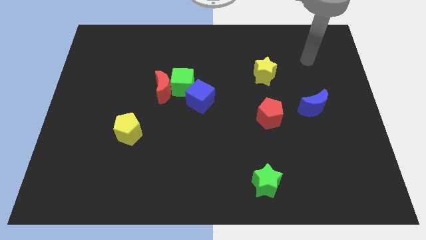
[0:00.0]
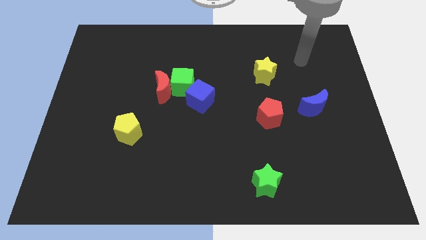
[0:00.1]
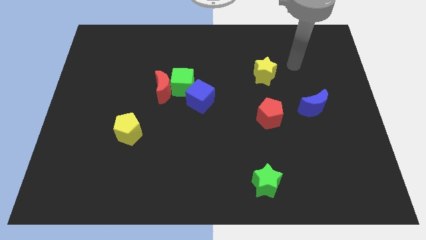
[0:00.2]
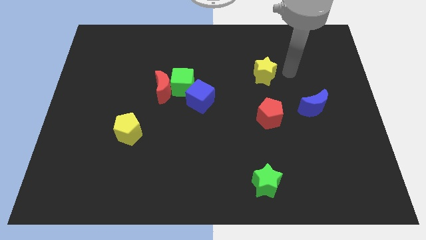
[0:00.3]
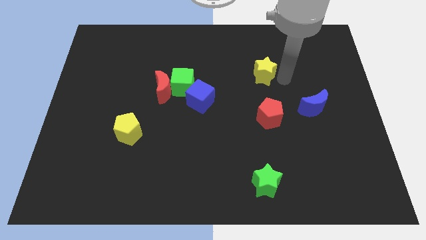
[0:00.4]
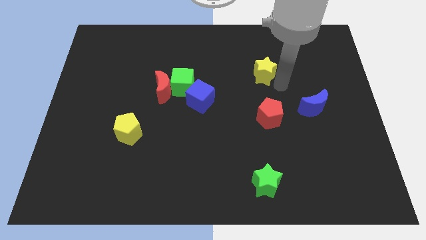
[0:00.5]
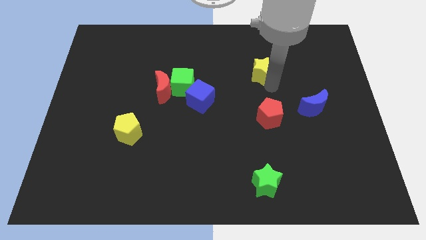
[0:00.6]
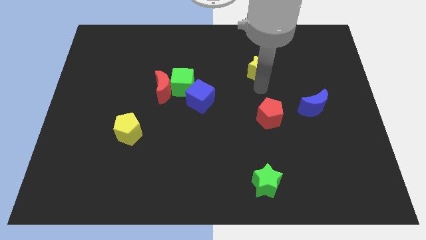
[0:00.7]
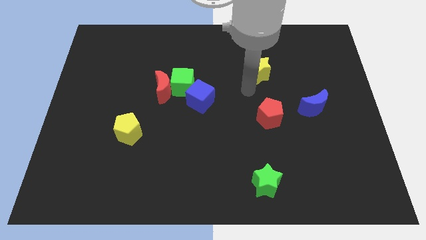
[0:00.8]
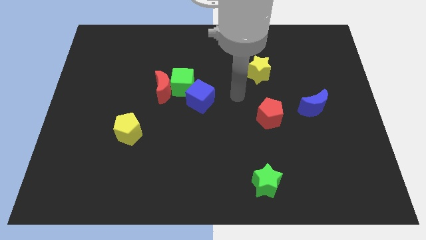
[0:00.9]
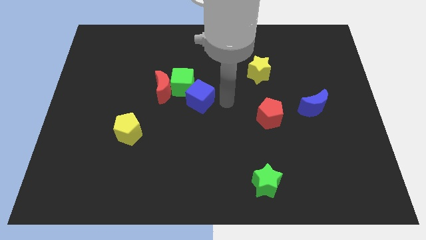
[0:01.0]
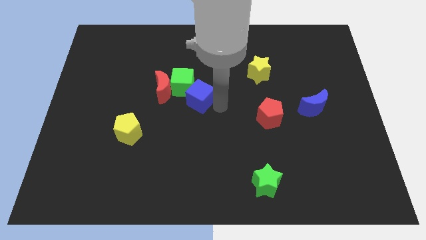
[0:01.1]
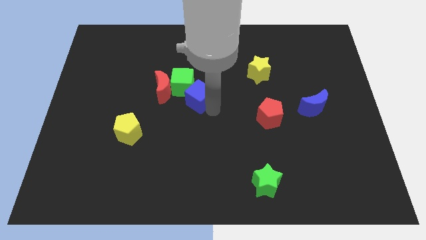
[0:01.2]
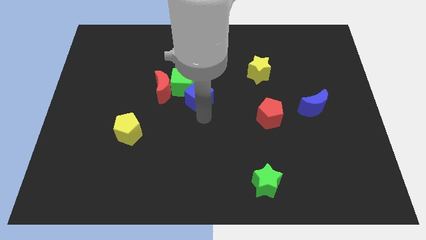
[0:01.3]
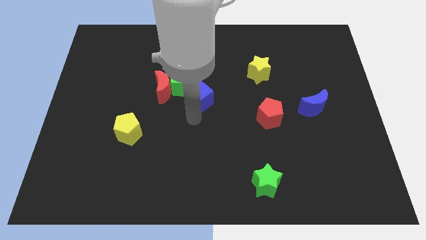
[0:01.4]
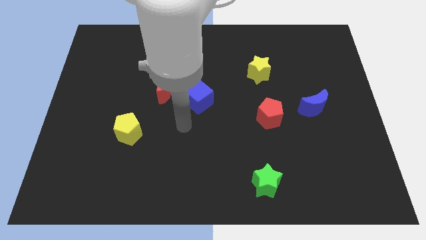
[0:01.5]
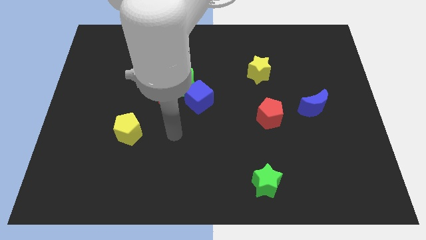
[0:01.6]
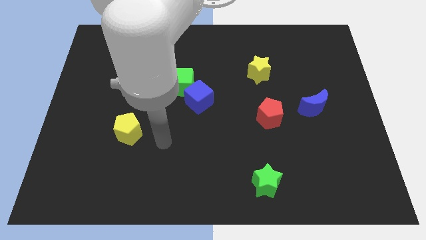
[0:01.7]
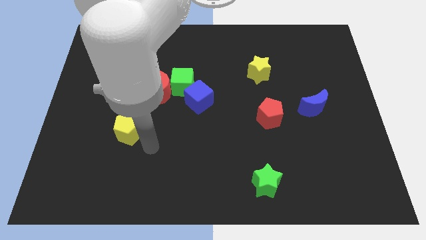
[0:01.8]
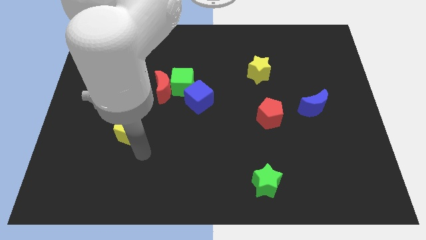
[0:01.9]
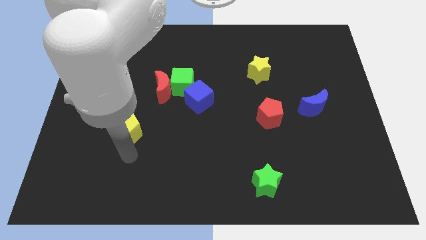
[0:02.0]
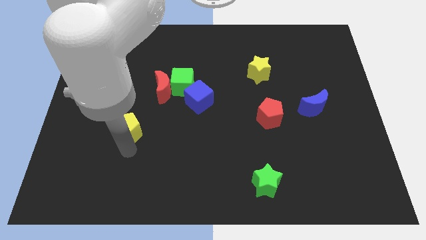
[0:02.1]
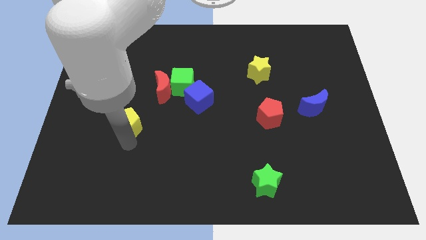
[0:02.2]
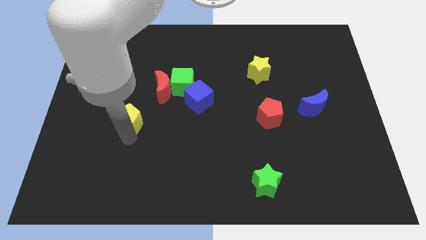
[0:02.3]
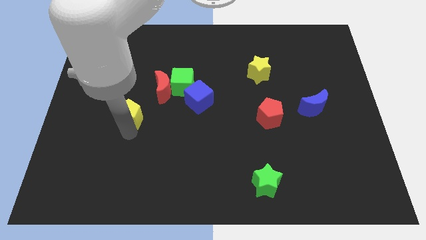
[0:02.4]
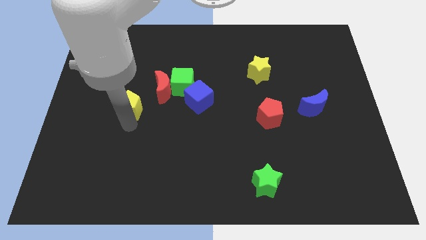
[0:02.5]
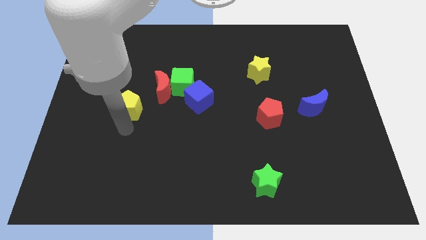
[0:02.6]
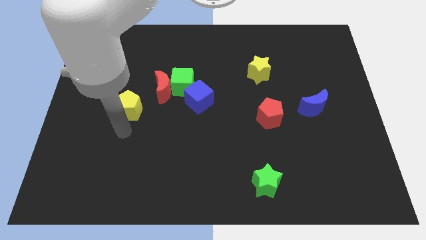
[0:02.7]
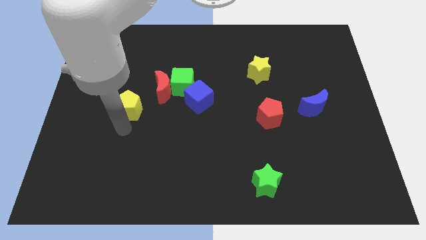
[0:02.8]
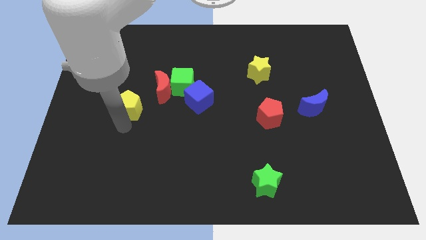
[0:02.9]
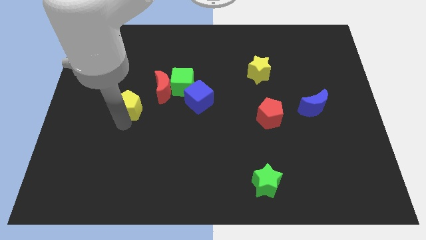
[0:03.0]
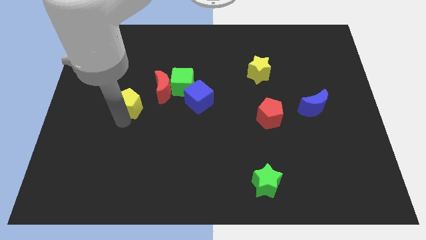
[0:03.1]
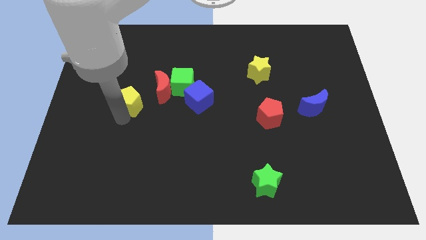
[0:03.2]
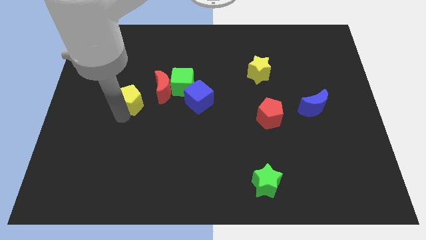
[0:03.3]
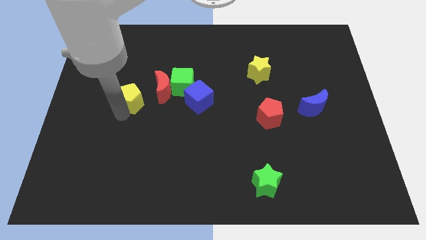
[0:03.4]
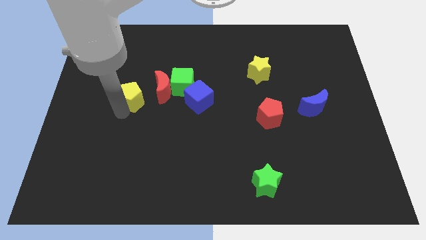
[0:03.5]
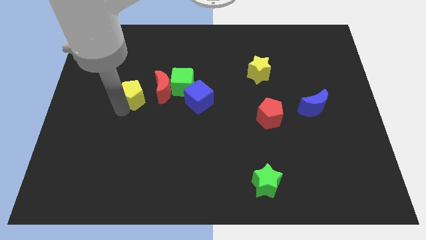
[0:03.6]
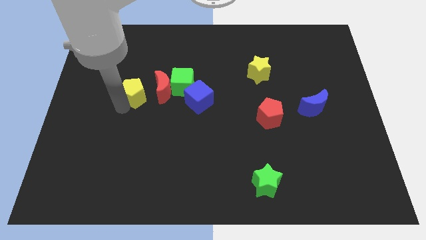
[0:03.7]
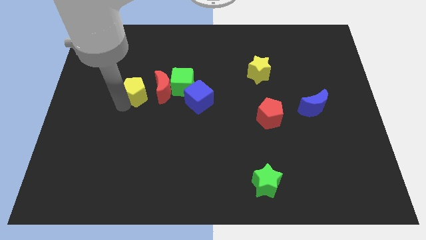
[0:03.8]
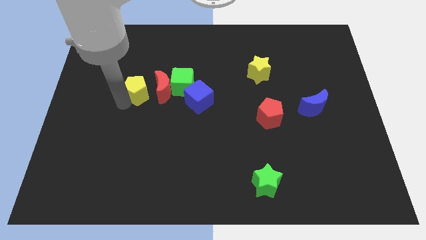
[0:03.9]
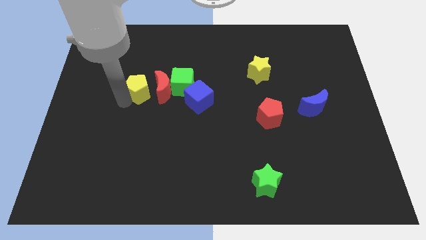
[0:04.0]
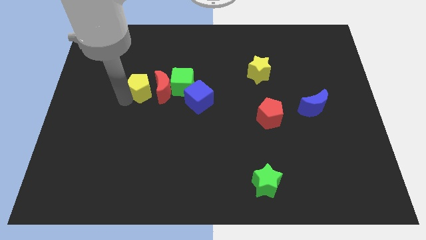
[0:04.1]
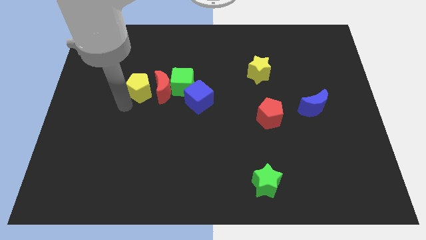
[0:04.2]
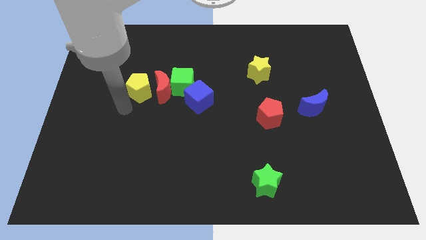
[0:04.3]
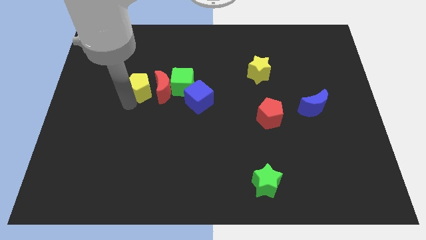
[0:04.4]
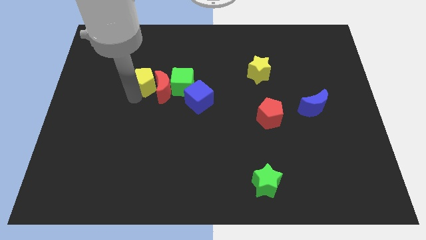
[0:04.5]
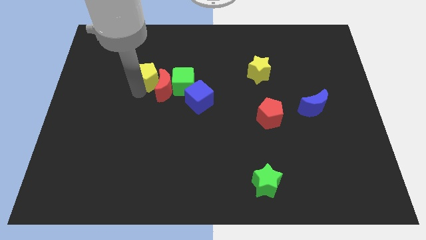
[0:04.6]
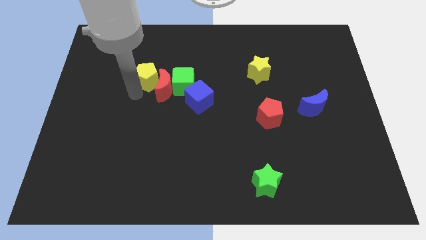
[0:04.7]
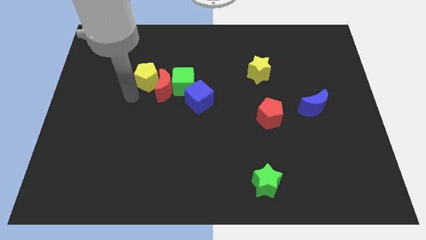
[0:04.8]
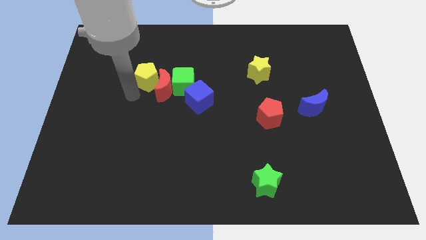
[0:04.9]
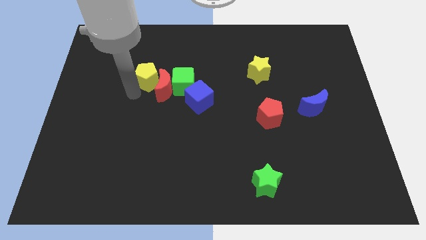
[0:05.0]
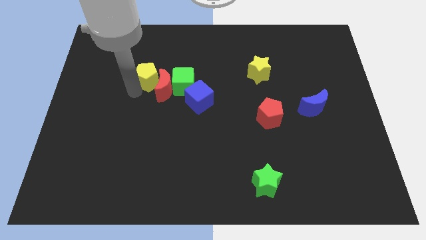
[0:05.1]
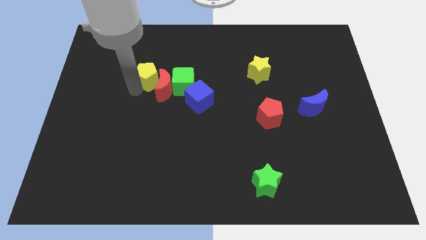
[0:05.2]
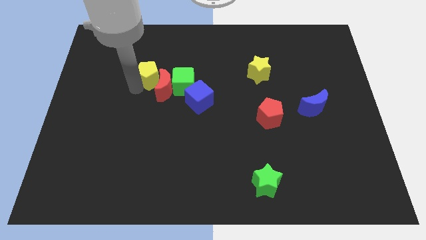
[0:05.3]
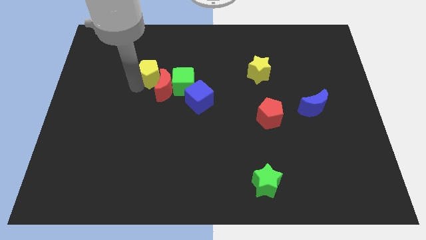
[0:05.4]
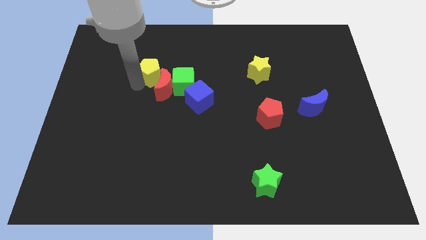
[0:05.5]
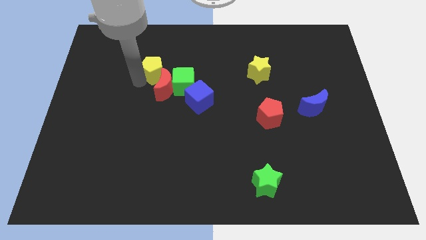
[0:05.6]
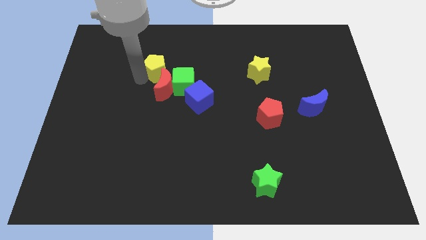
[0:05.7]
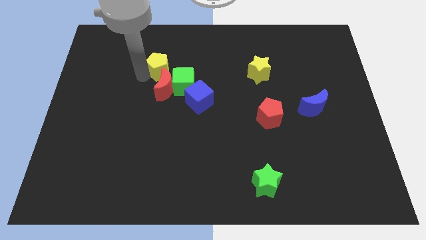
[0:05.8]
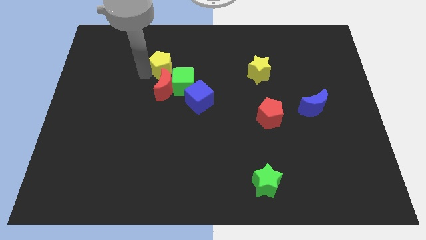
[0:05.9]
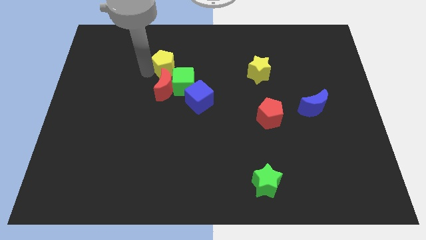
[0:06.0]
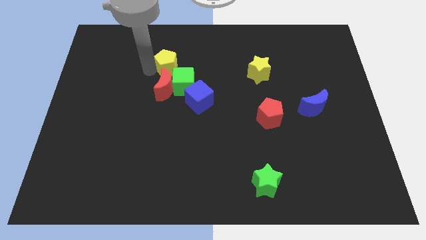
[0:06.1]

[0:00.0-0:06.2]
move the yellow pentagon to the top of the green cube
